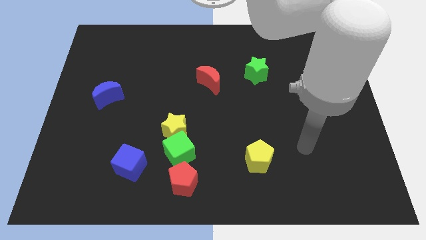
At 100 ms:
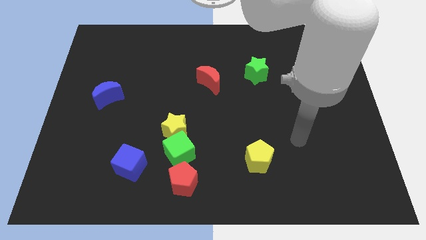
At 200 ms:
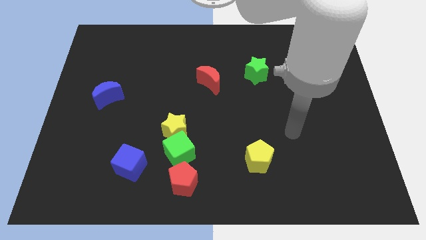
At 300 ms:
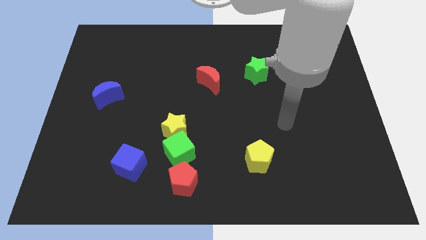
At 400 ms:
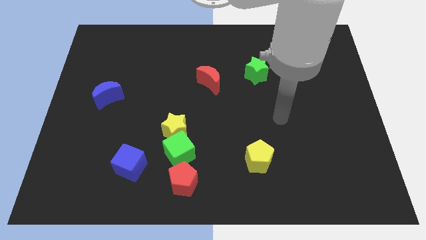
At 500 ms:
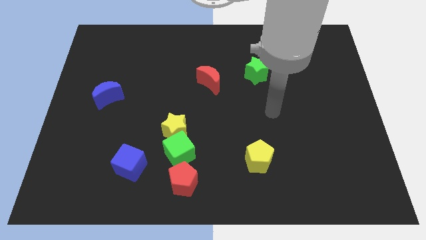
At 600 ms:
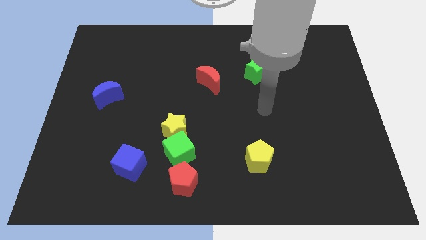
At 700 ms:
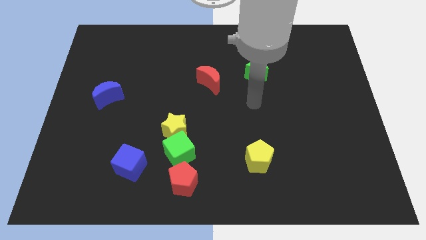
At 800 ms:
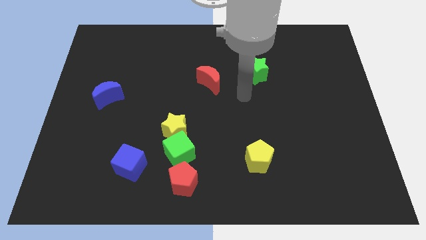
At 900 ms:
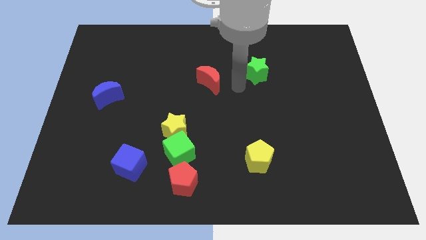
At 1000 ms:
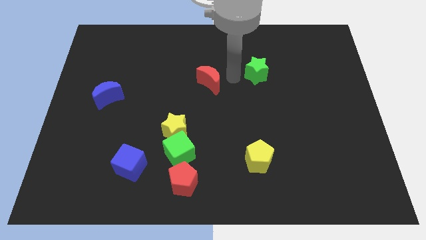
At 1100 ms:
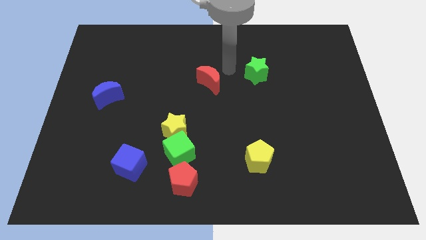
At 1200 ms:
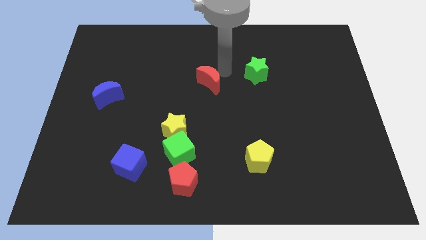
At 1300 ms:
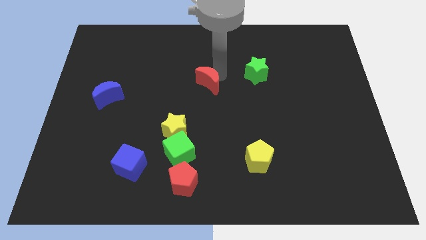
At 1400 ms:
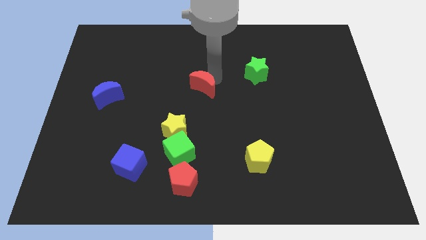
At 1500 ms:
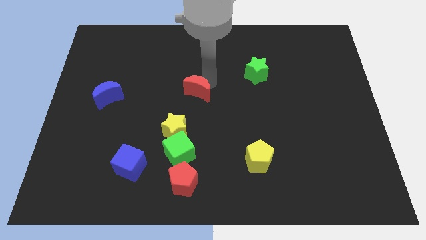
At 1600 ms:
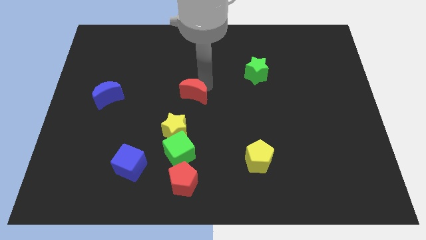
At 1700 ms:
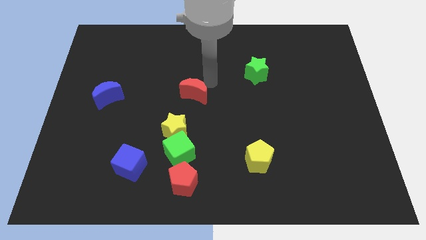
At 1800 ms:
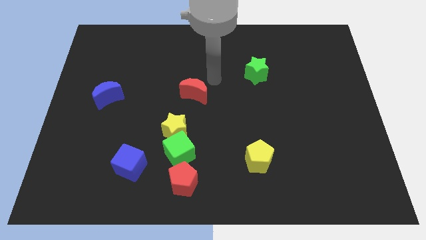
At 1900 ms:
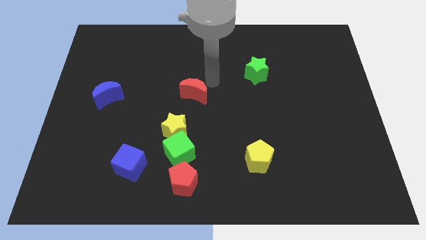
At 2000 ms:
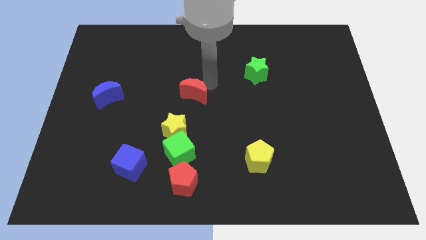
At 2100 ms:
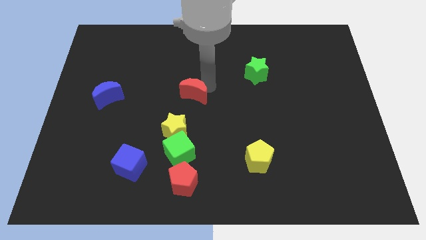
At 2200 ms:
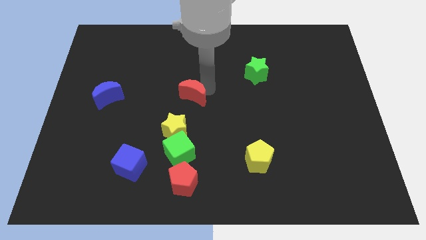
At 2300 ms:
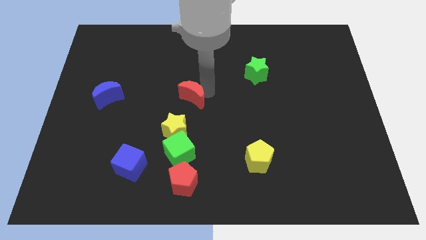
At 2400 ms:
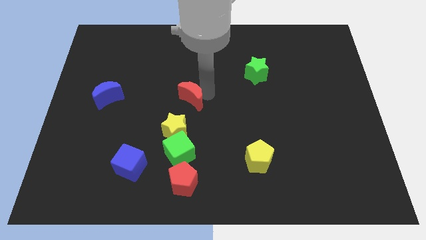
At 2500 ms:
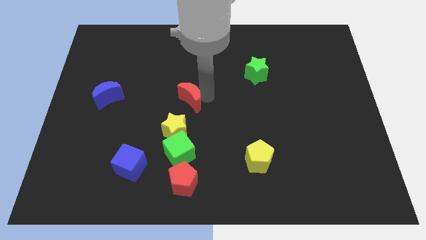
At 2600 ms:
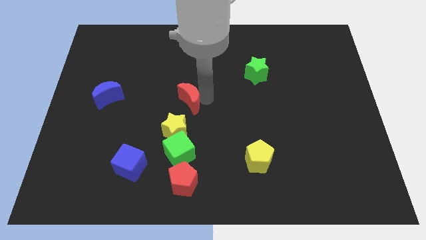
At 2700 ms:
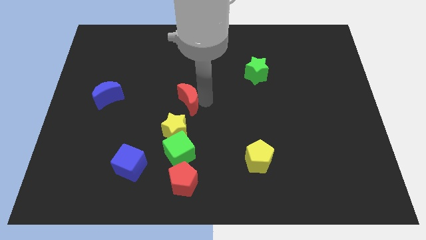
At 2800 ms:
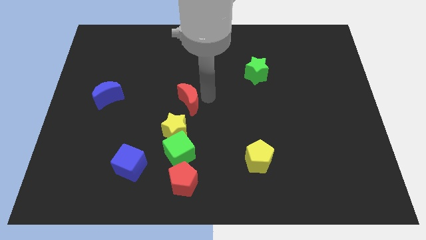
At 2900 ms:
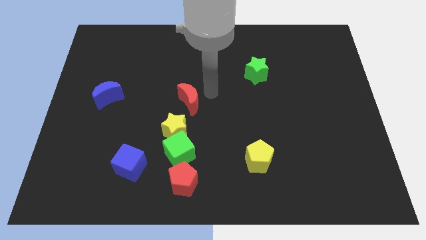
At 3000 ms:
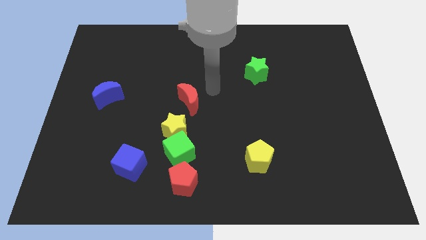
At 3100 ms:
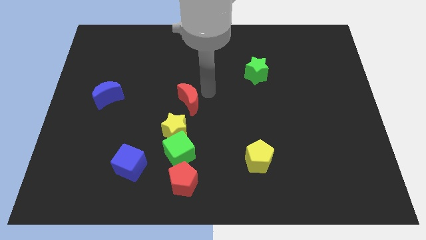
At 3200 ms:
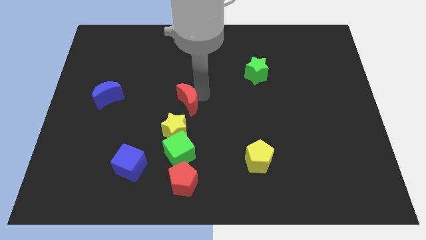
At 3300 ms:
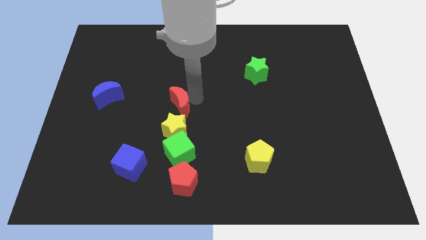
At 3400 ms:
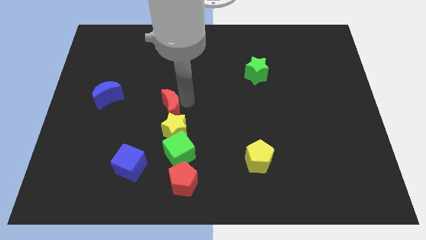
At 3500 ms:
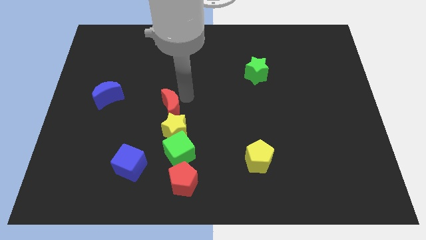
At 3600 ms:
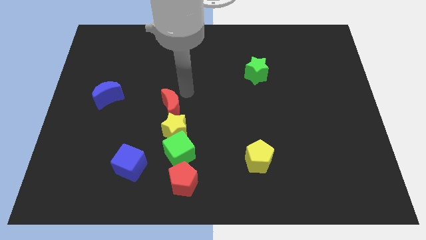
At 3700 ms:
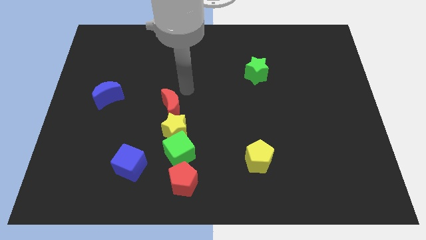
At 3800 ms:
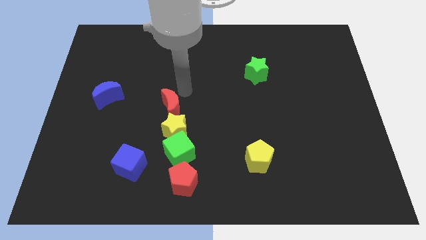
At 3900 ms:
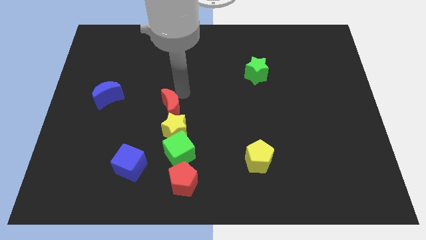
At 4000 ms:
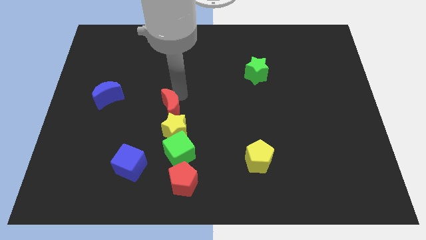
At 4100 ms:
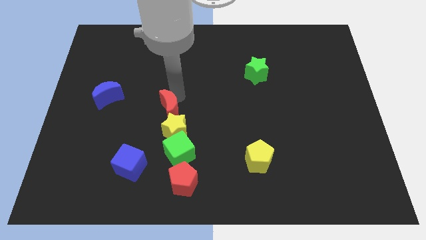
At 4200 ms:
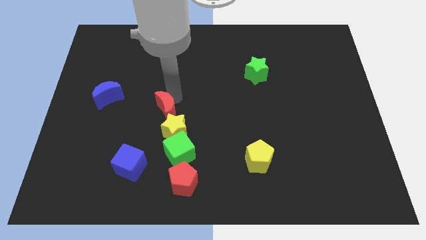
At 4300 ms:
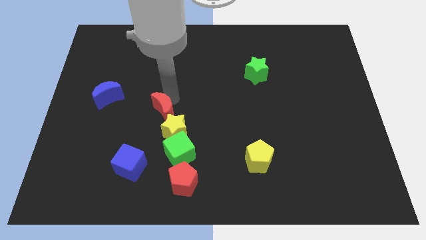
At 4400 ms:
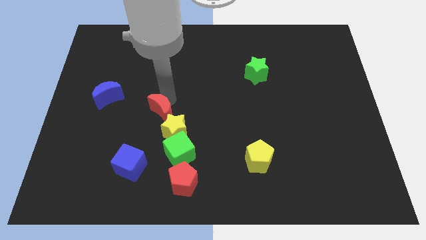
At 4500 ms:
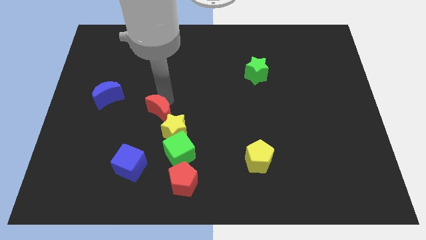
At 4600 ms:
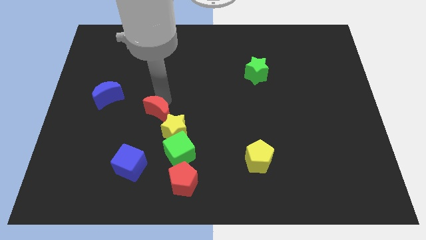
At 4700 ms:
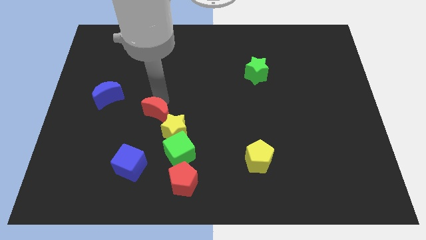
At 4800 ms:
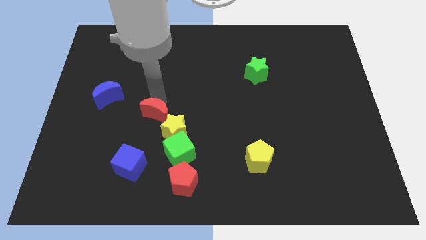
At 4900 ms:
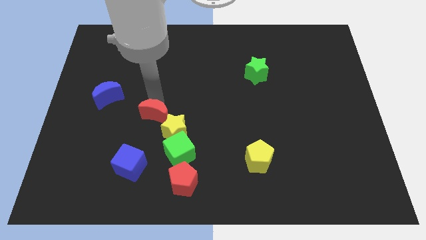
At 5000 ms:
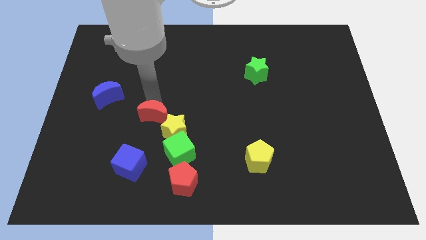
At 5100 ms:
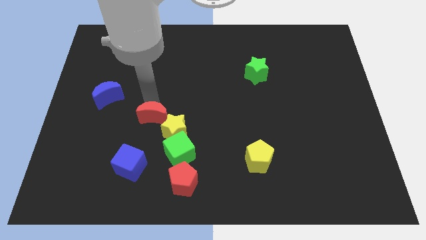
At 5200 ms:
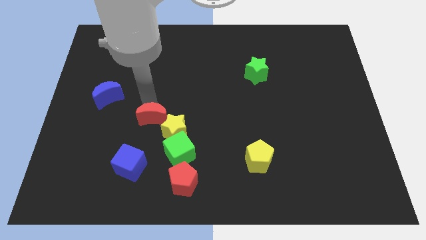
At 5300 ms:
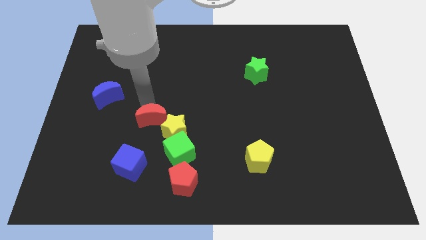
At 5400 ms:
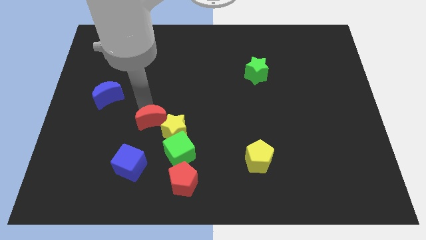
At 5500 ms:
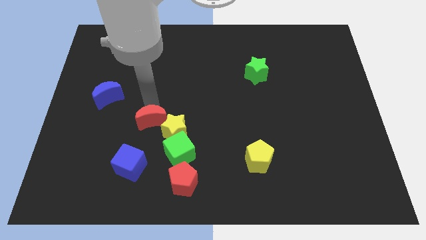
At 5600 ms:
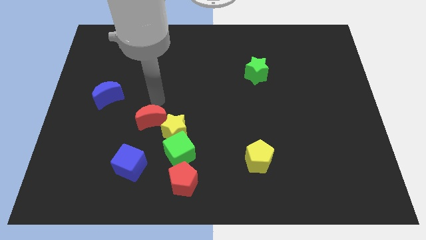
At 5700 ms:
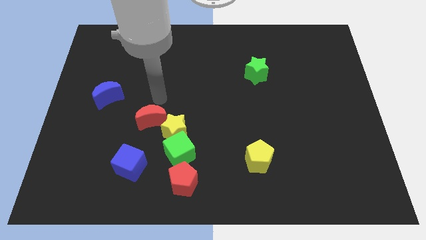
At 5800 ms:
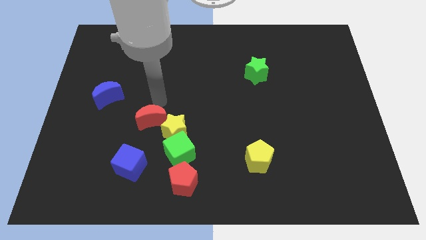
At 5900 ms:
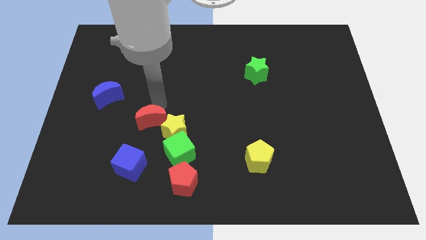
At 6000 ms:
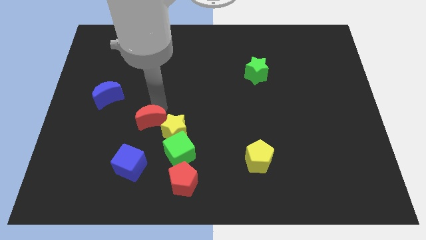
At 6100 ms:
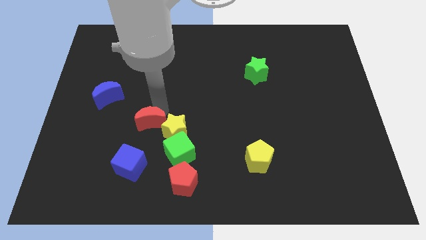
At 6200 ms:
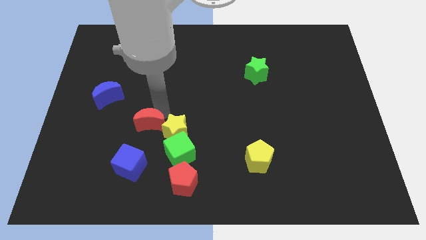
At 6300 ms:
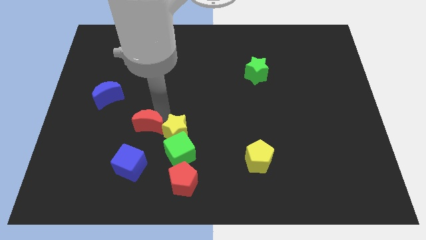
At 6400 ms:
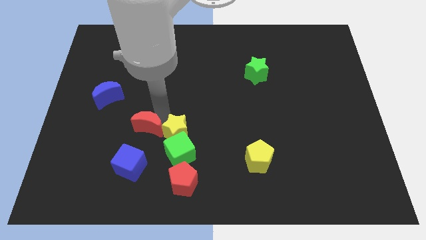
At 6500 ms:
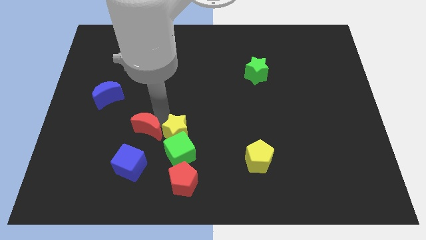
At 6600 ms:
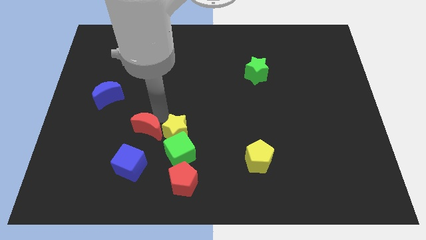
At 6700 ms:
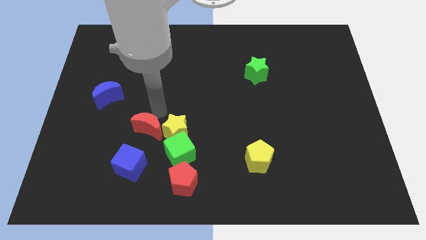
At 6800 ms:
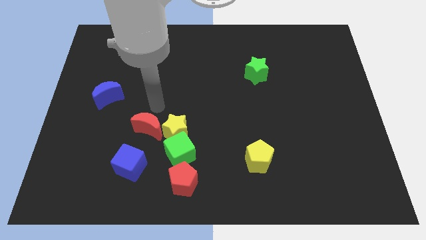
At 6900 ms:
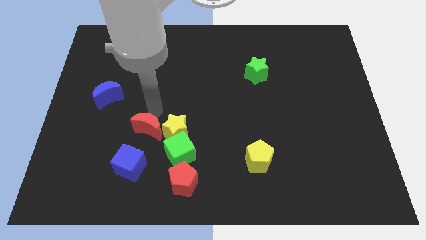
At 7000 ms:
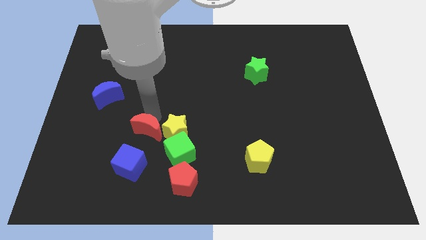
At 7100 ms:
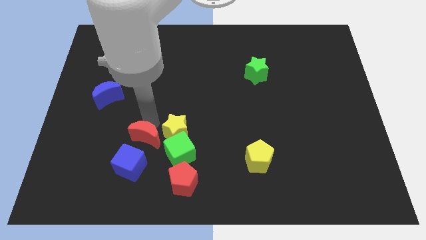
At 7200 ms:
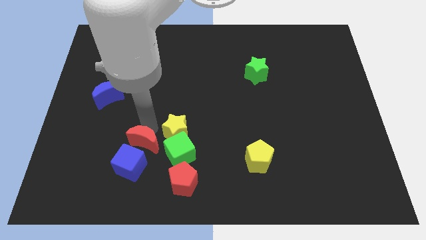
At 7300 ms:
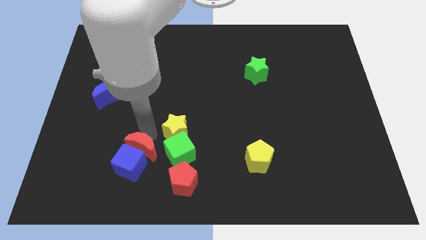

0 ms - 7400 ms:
push the red moon next to the blue cube
